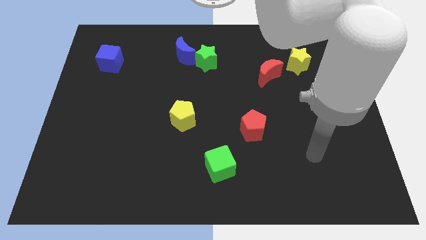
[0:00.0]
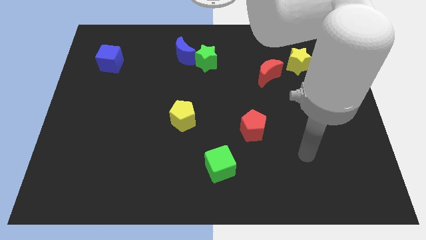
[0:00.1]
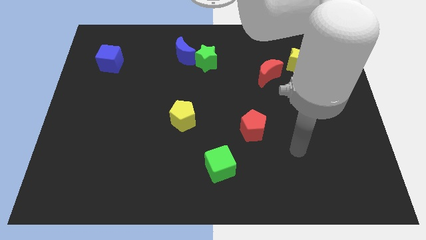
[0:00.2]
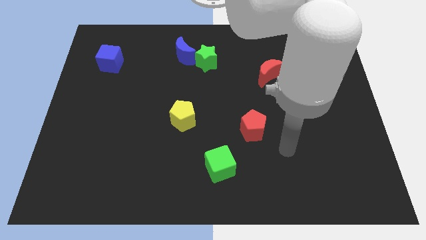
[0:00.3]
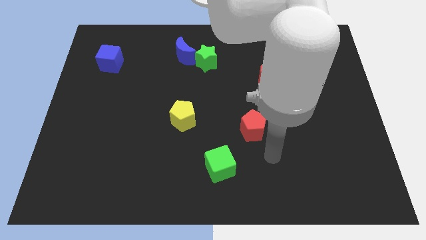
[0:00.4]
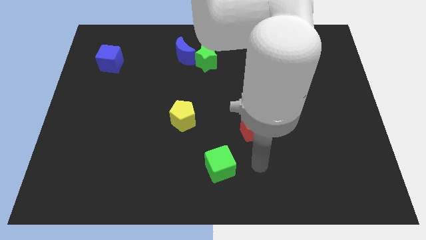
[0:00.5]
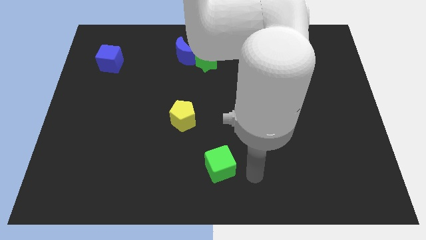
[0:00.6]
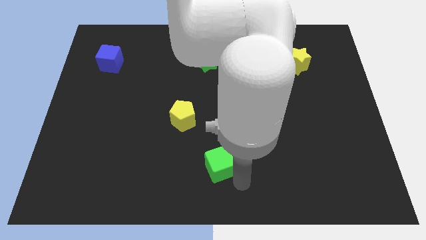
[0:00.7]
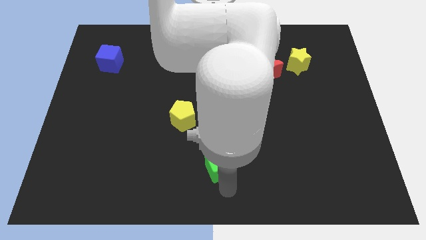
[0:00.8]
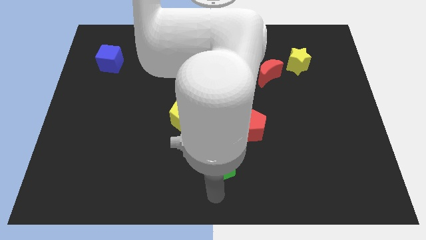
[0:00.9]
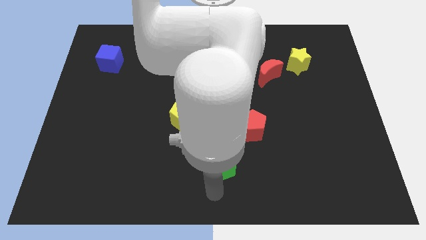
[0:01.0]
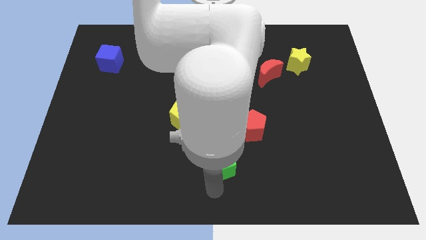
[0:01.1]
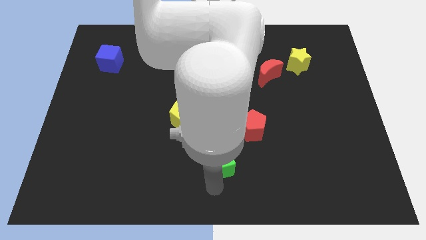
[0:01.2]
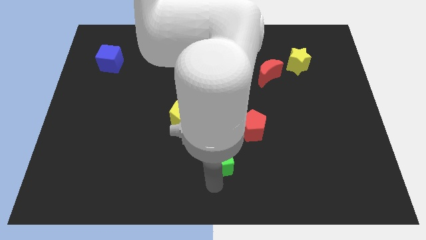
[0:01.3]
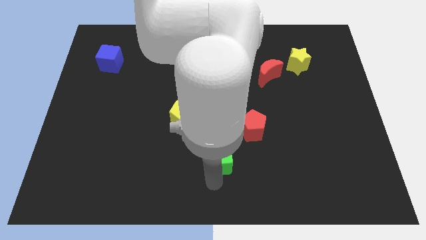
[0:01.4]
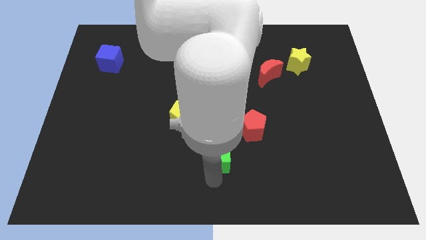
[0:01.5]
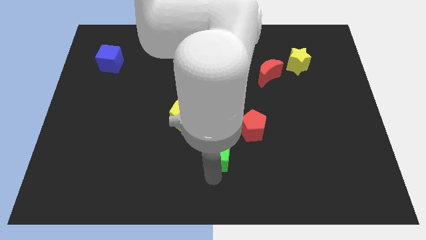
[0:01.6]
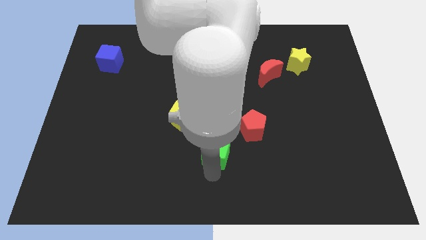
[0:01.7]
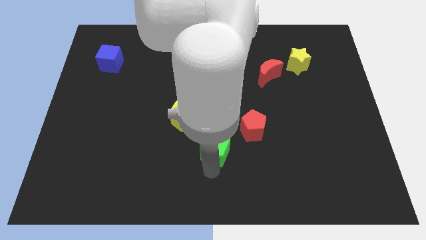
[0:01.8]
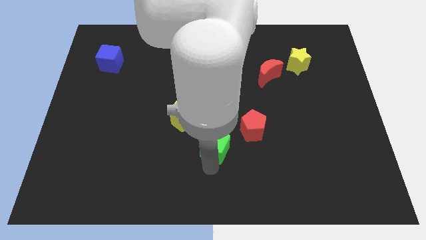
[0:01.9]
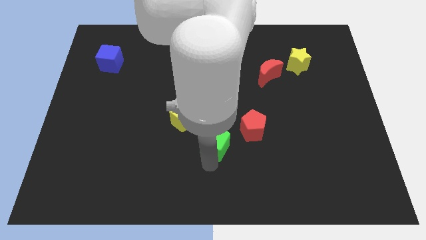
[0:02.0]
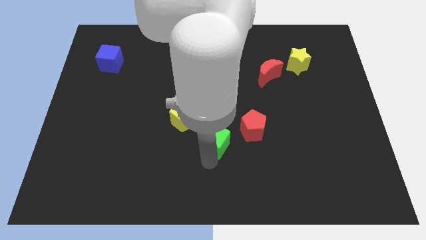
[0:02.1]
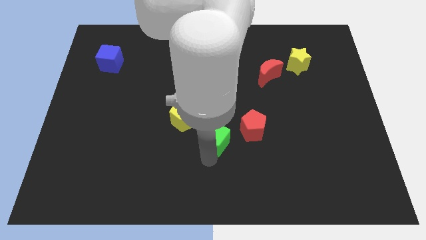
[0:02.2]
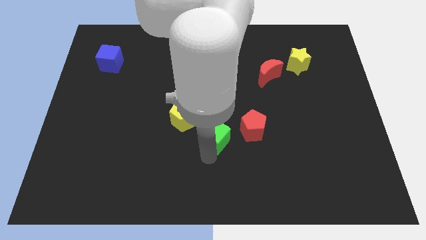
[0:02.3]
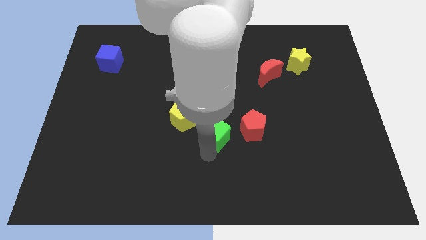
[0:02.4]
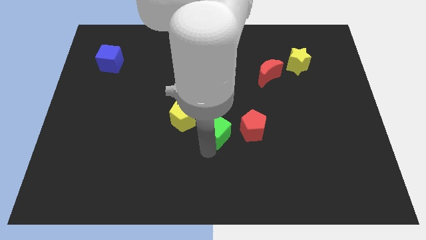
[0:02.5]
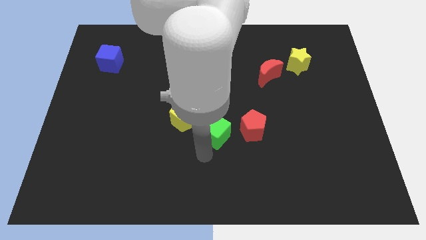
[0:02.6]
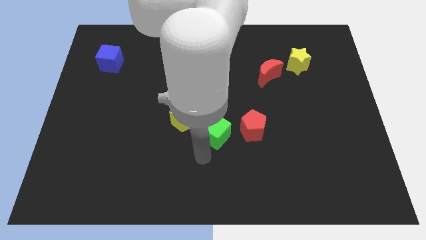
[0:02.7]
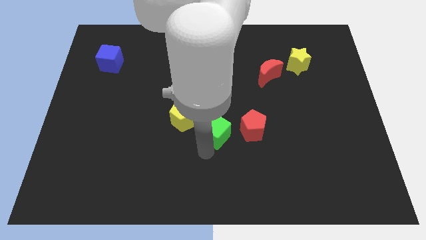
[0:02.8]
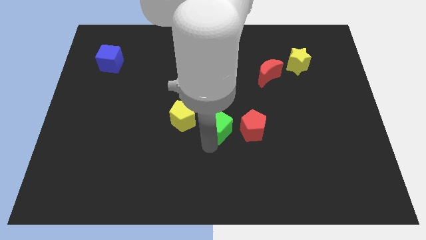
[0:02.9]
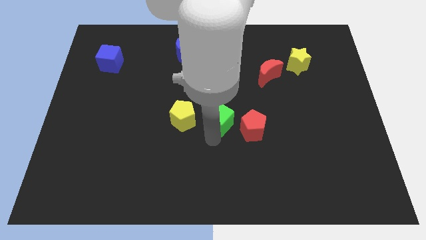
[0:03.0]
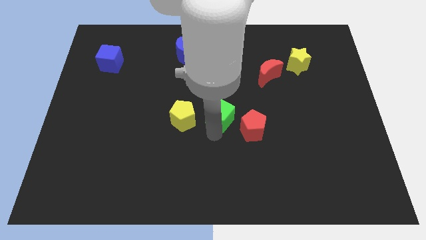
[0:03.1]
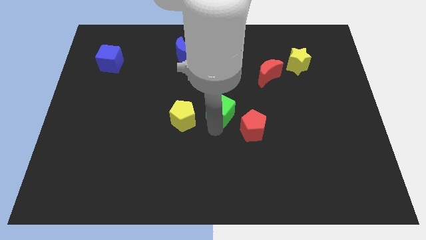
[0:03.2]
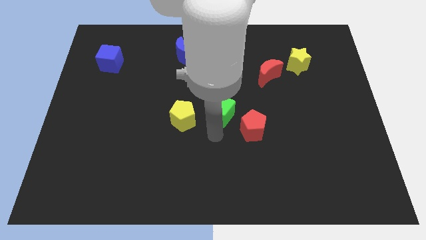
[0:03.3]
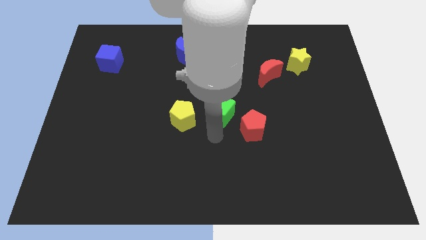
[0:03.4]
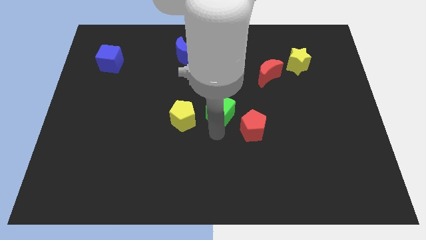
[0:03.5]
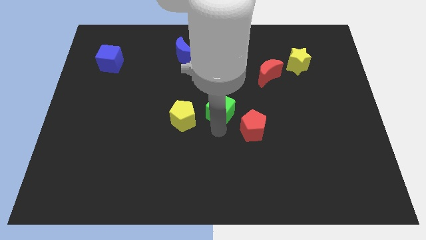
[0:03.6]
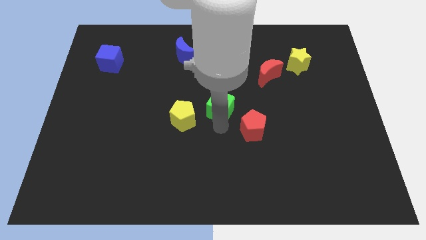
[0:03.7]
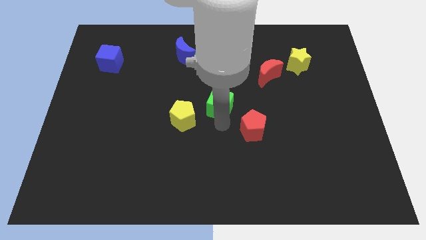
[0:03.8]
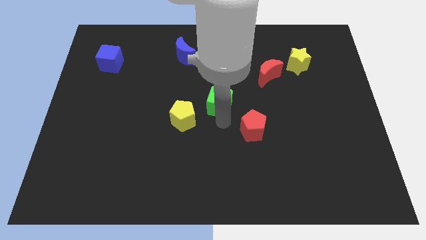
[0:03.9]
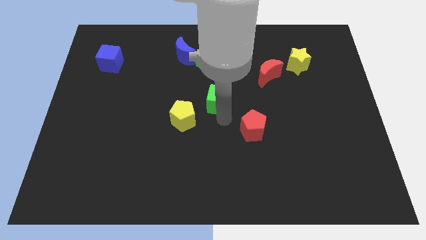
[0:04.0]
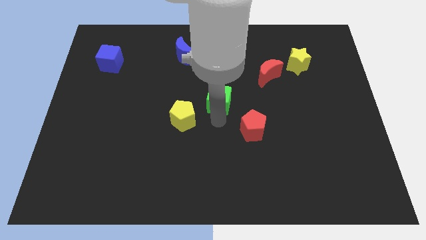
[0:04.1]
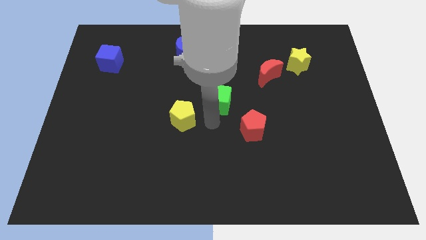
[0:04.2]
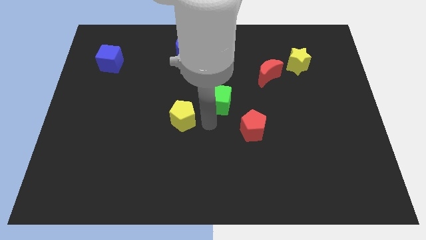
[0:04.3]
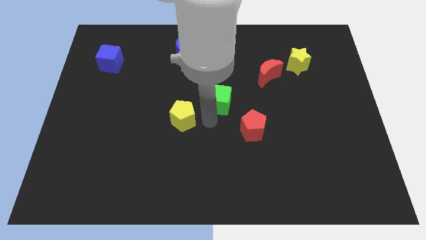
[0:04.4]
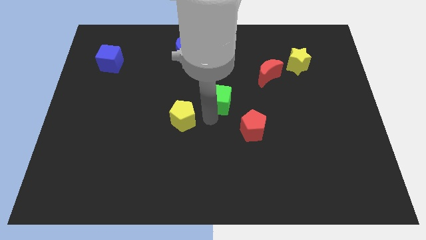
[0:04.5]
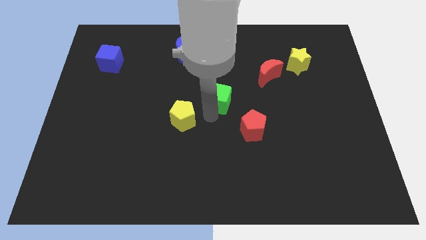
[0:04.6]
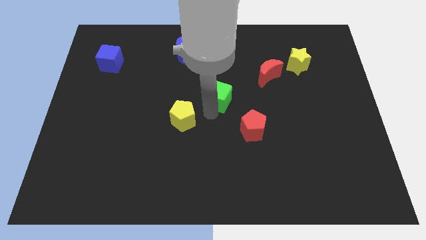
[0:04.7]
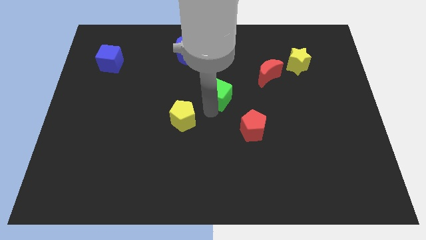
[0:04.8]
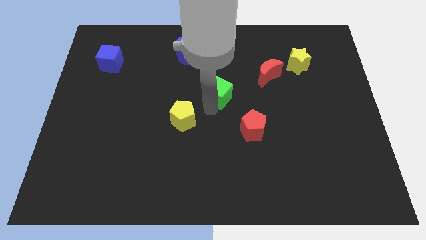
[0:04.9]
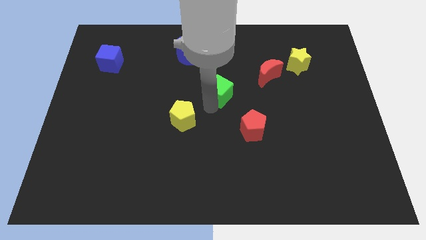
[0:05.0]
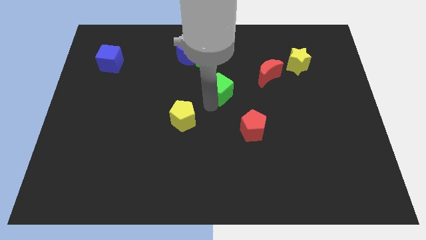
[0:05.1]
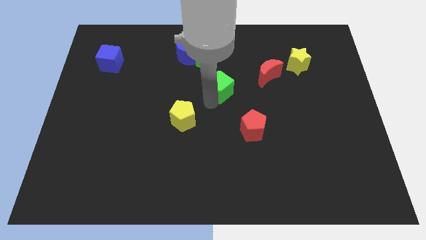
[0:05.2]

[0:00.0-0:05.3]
push the green cube to the bottom right side of the green star
